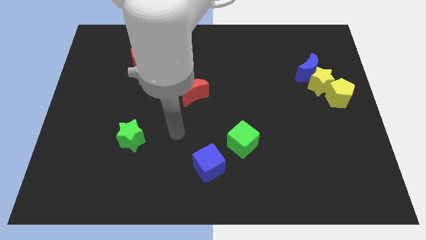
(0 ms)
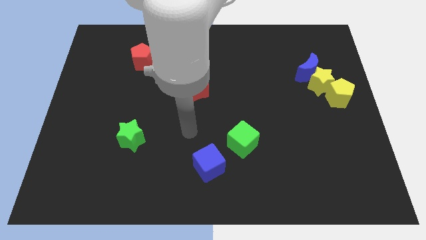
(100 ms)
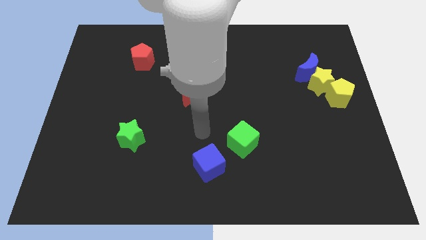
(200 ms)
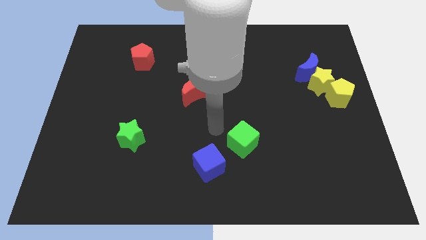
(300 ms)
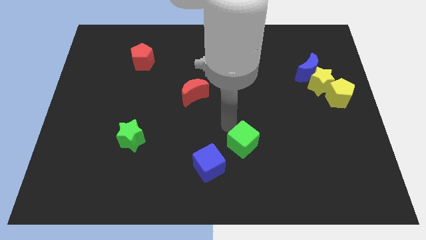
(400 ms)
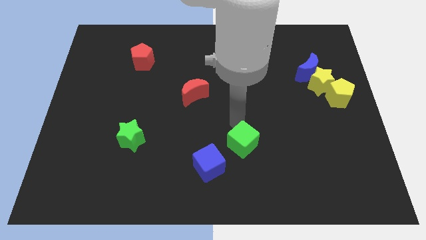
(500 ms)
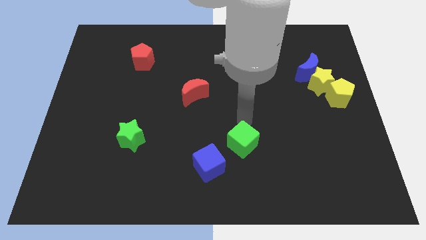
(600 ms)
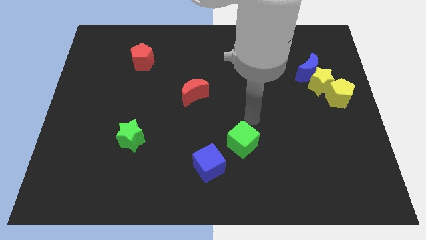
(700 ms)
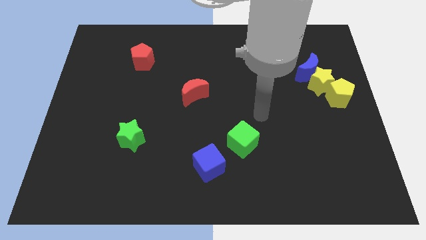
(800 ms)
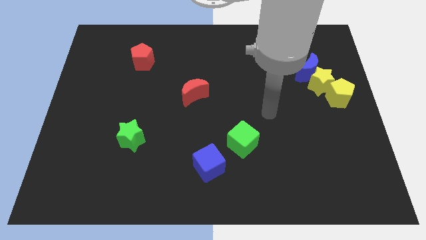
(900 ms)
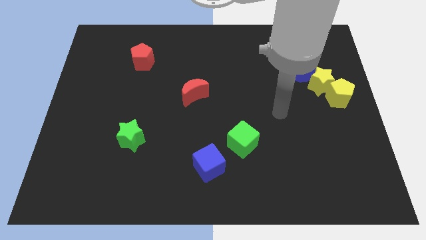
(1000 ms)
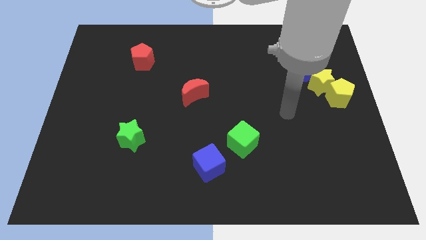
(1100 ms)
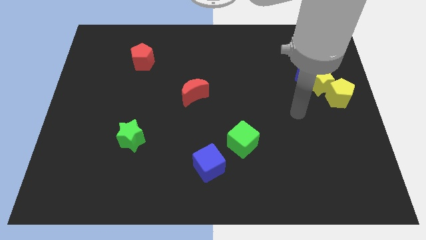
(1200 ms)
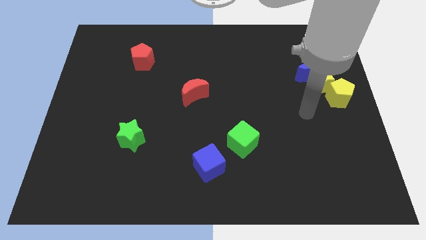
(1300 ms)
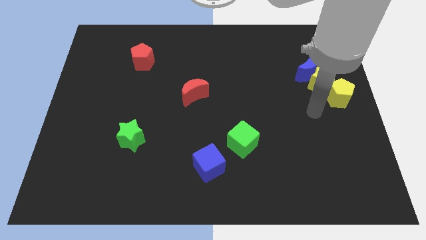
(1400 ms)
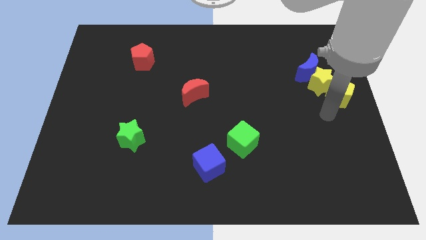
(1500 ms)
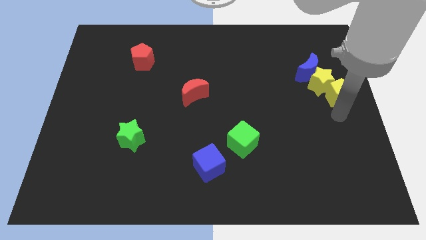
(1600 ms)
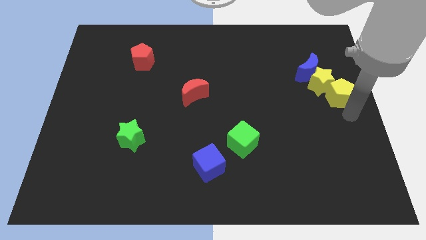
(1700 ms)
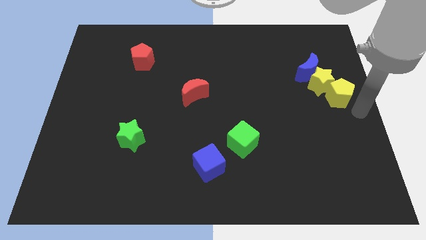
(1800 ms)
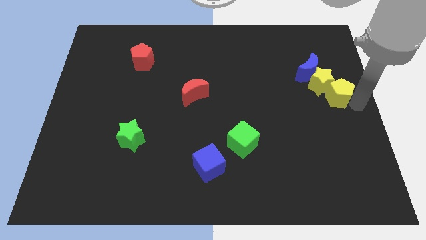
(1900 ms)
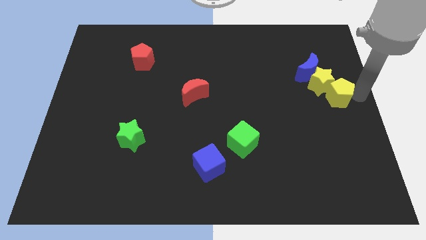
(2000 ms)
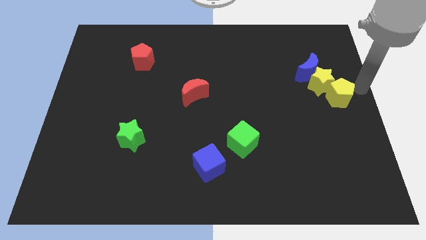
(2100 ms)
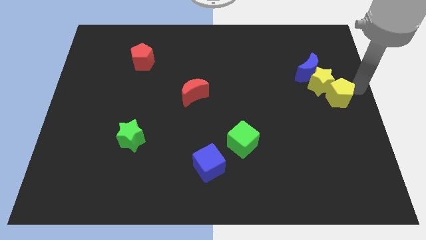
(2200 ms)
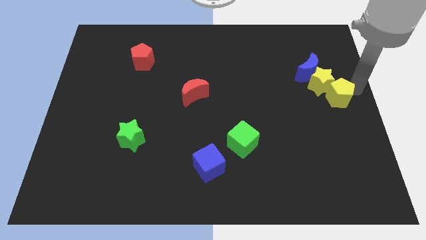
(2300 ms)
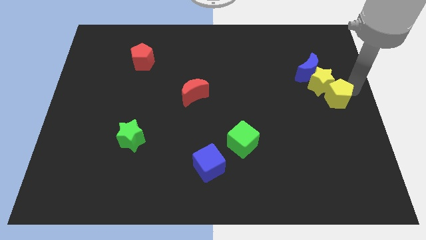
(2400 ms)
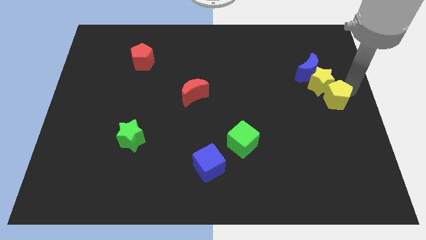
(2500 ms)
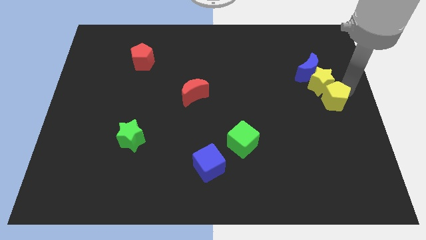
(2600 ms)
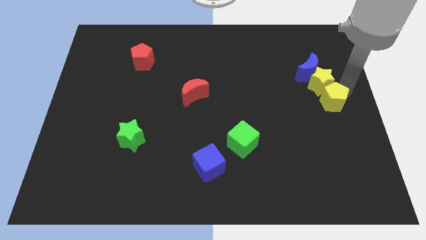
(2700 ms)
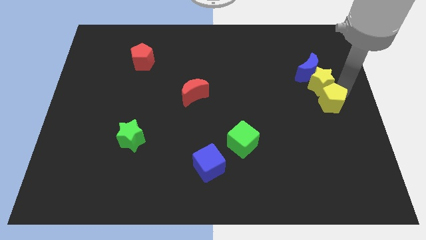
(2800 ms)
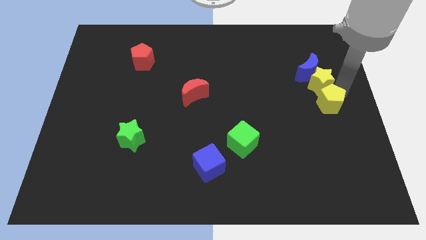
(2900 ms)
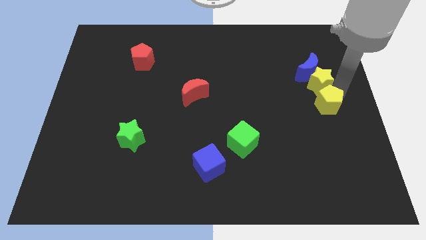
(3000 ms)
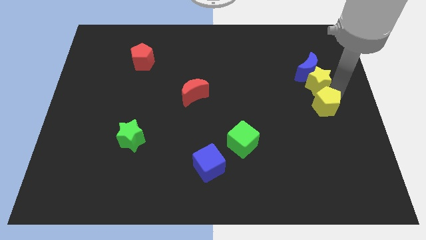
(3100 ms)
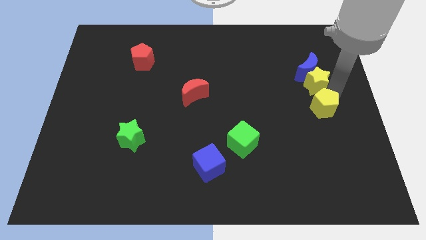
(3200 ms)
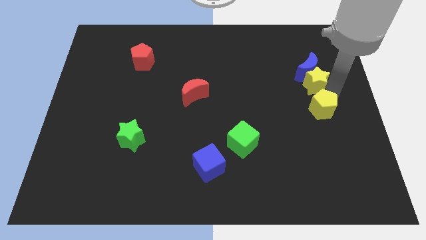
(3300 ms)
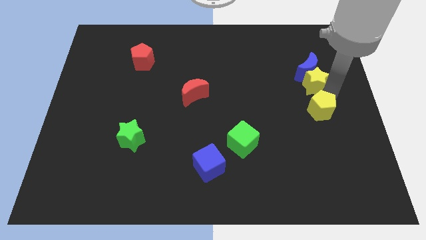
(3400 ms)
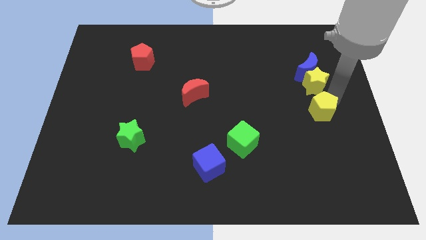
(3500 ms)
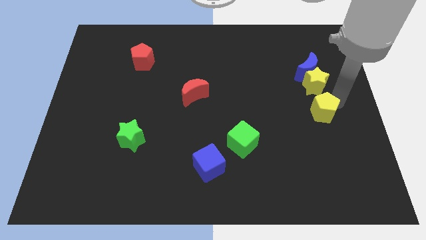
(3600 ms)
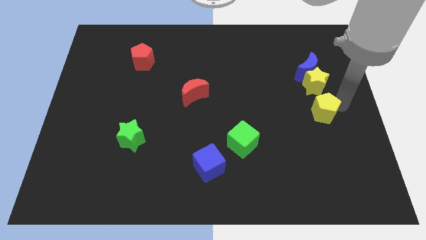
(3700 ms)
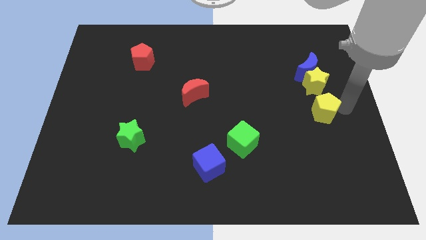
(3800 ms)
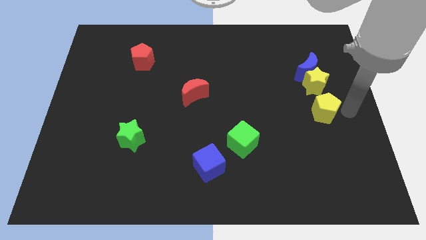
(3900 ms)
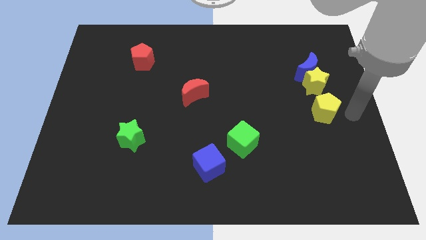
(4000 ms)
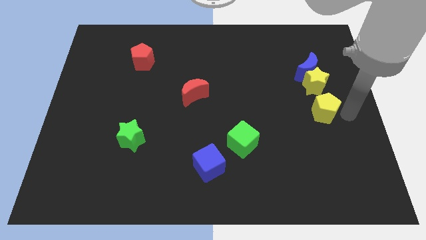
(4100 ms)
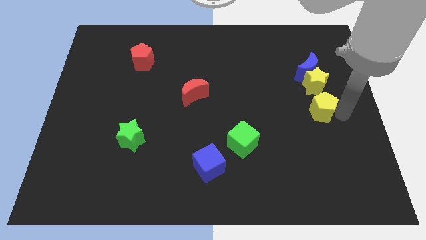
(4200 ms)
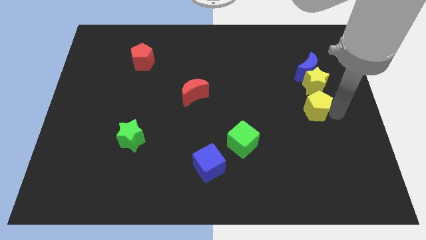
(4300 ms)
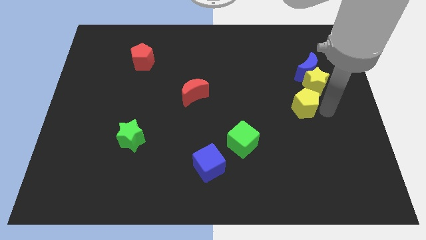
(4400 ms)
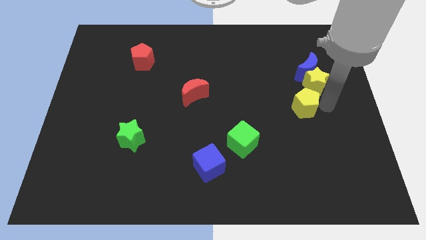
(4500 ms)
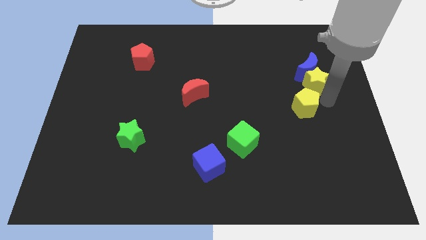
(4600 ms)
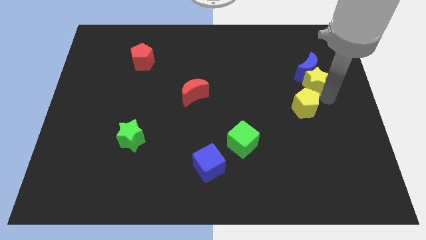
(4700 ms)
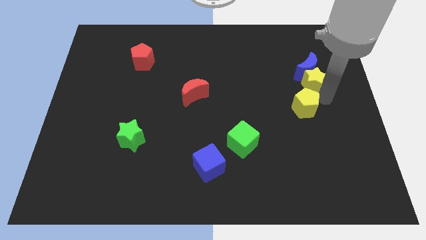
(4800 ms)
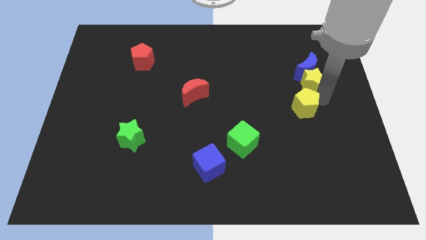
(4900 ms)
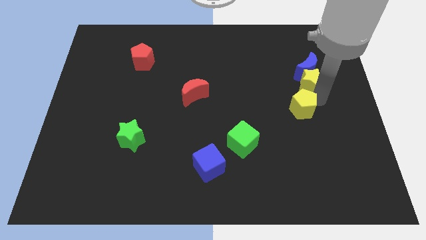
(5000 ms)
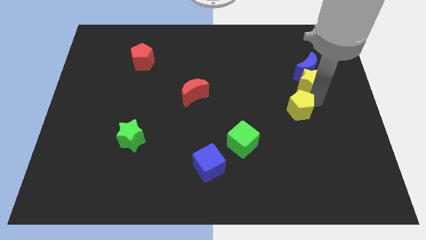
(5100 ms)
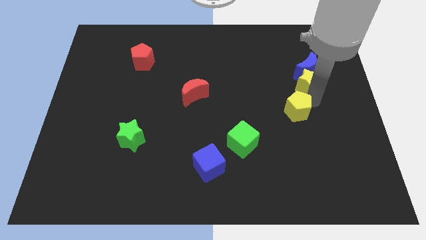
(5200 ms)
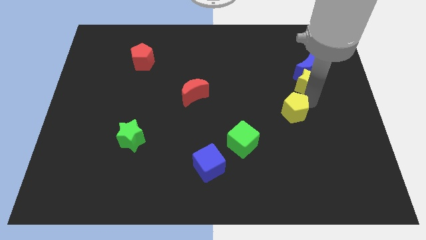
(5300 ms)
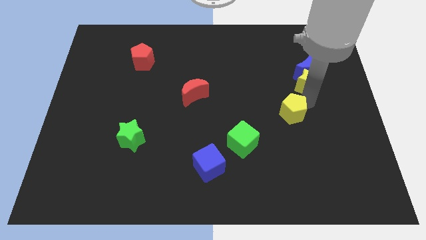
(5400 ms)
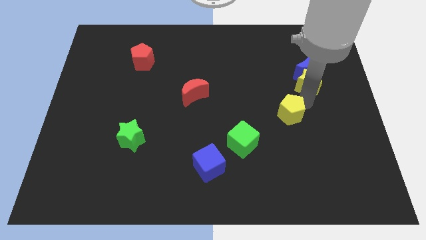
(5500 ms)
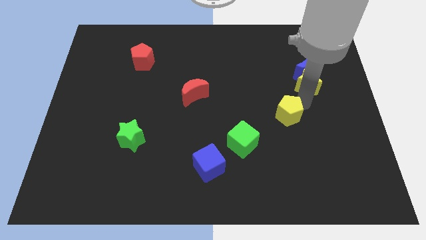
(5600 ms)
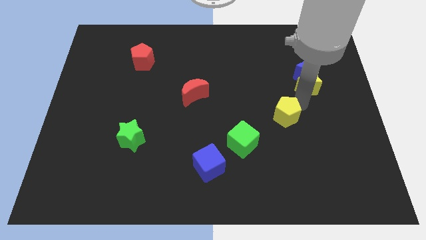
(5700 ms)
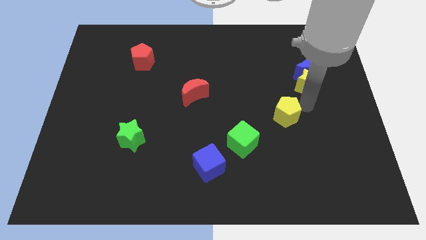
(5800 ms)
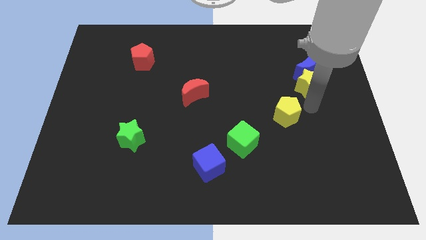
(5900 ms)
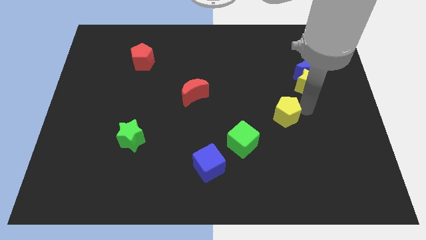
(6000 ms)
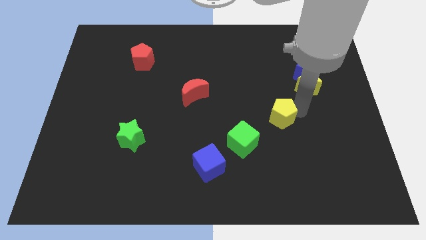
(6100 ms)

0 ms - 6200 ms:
push the yellow pentagon diagonally up and to the right of the green cube

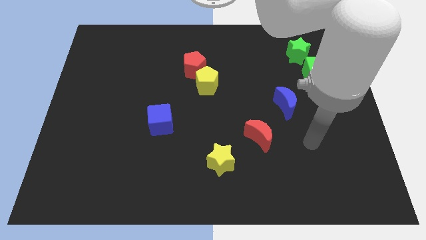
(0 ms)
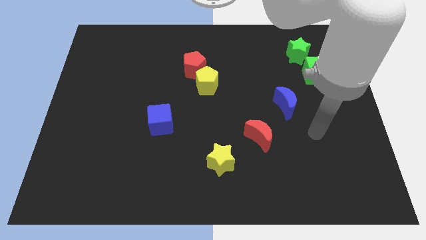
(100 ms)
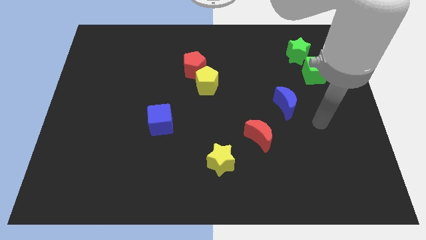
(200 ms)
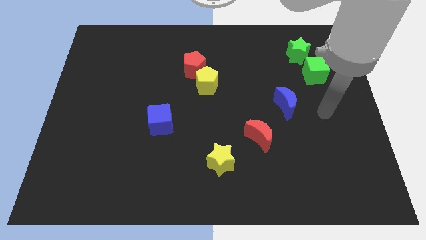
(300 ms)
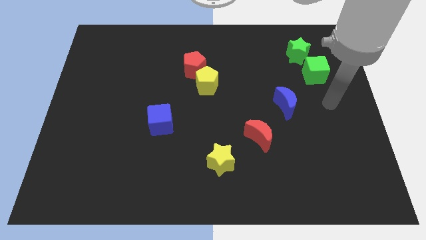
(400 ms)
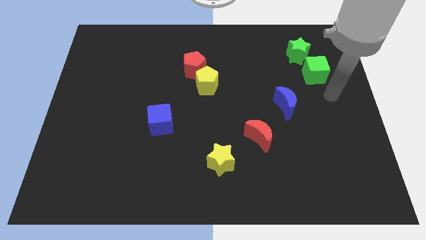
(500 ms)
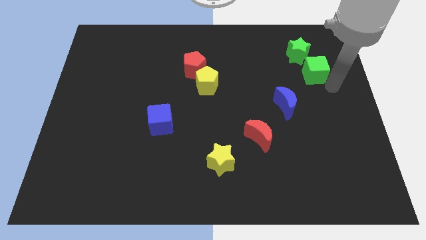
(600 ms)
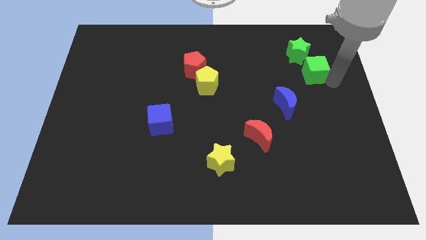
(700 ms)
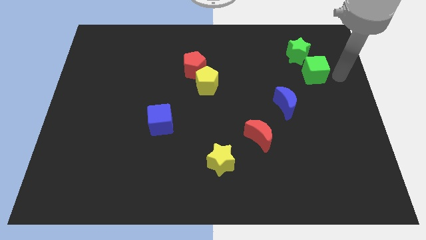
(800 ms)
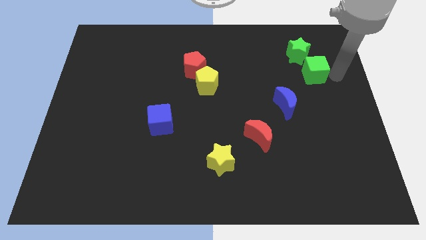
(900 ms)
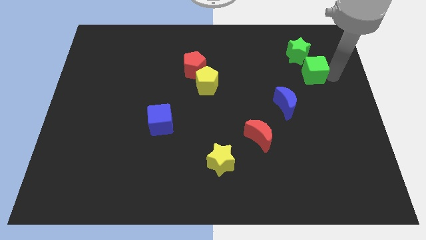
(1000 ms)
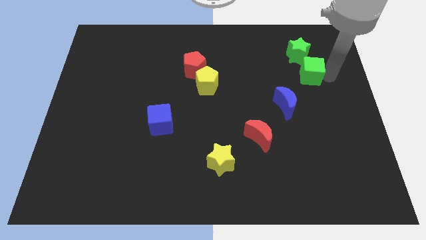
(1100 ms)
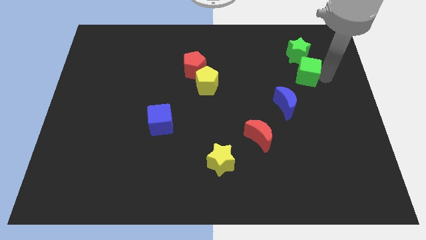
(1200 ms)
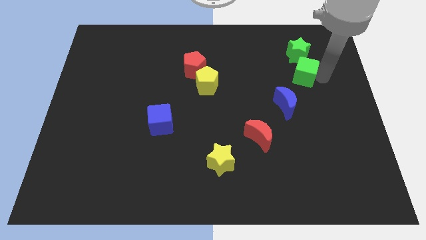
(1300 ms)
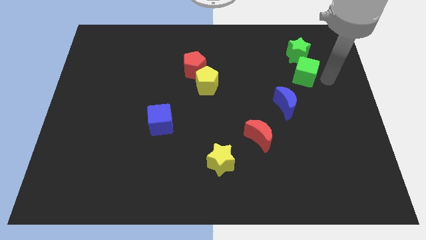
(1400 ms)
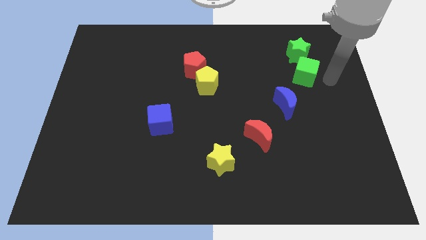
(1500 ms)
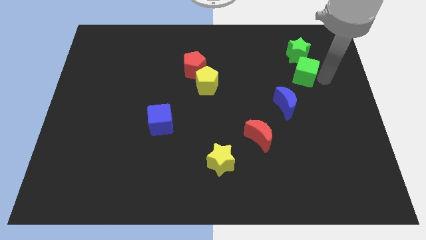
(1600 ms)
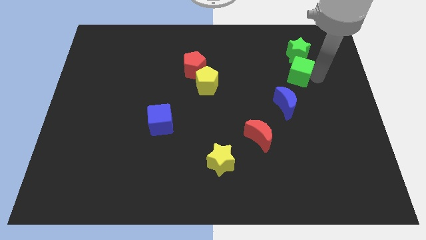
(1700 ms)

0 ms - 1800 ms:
slide the green cube to the bottom left side of the green star
